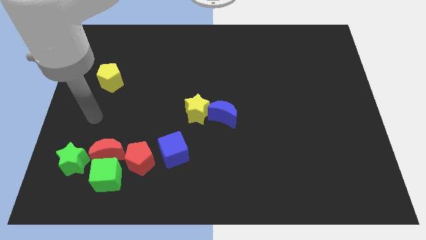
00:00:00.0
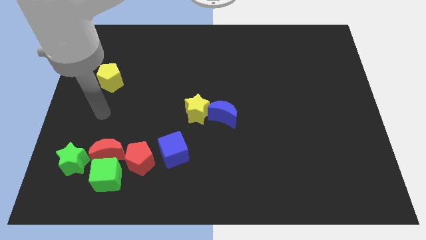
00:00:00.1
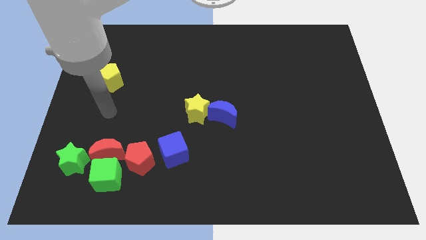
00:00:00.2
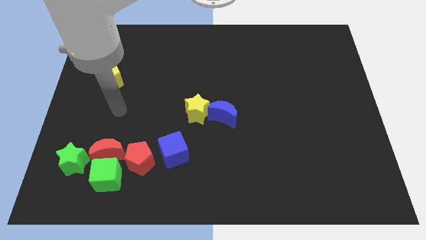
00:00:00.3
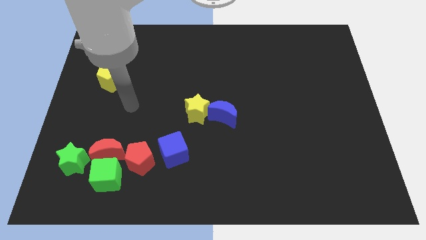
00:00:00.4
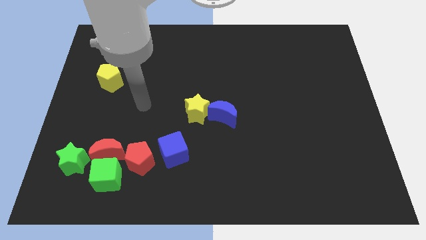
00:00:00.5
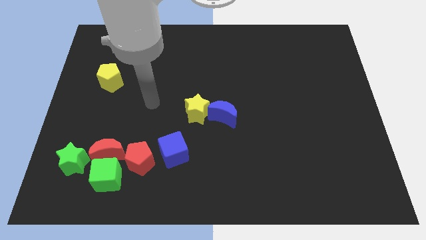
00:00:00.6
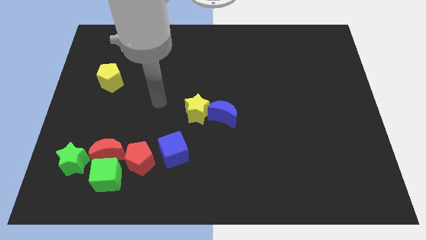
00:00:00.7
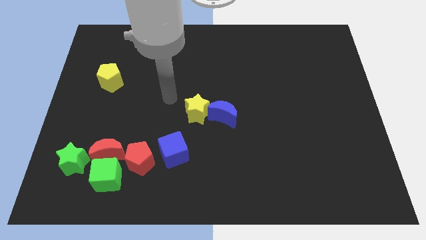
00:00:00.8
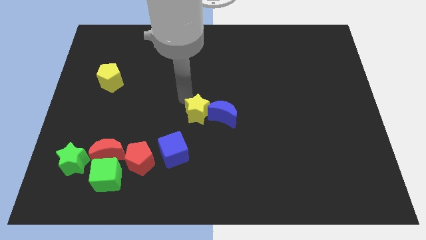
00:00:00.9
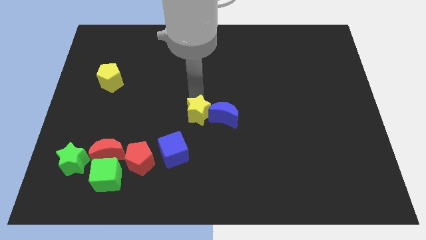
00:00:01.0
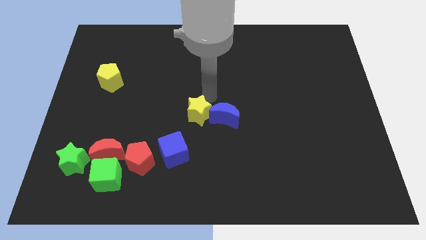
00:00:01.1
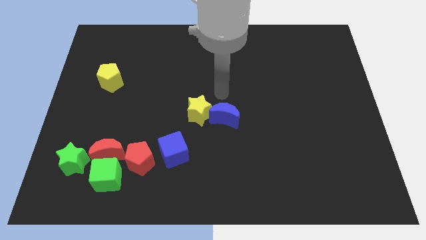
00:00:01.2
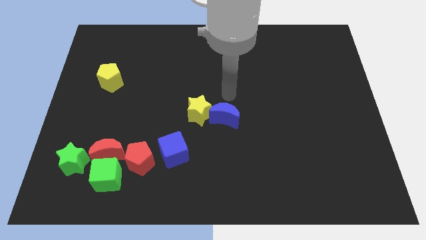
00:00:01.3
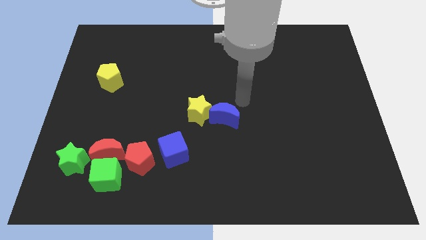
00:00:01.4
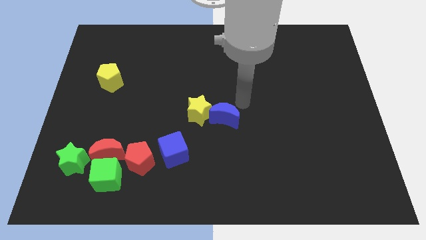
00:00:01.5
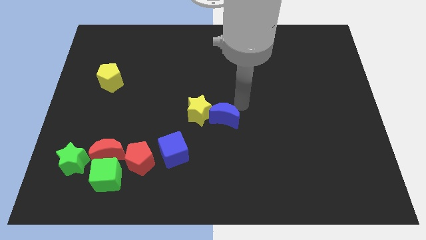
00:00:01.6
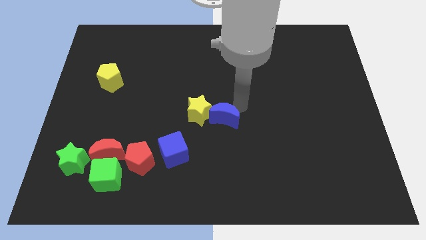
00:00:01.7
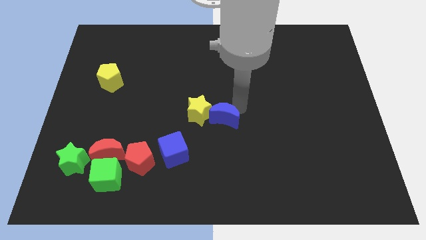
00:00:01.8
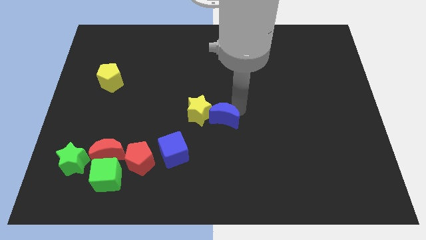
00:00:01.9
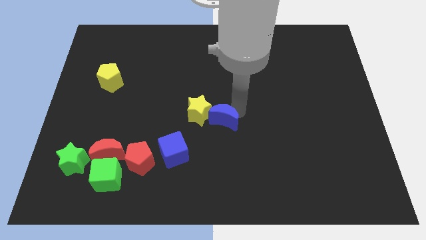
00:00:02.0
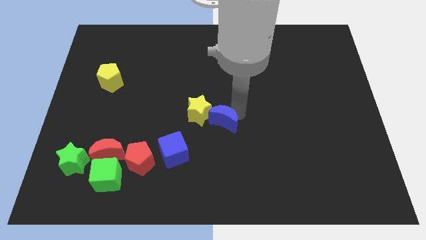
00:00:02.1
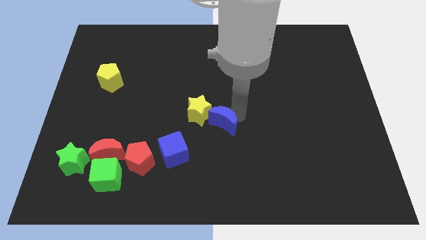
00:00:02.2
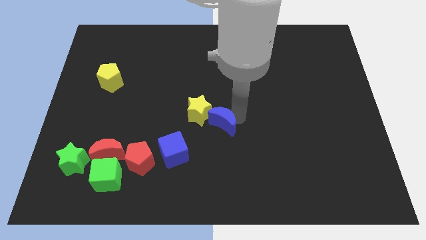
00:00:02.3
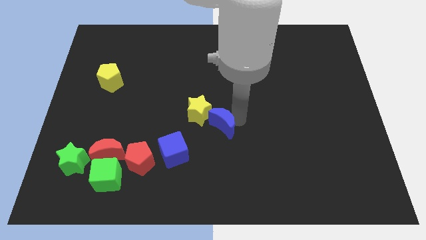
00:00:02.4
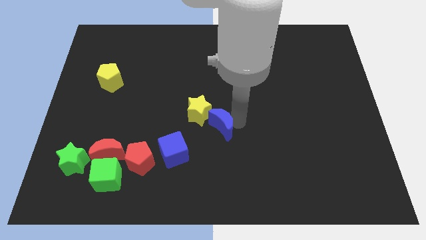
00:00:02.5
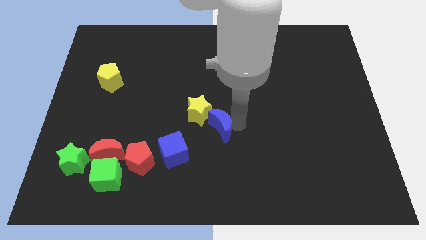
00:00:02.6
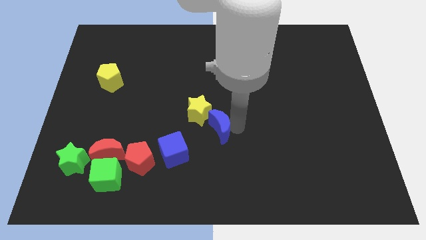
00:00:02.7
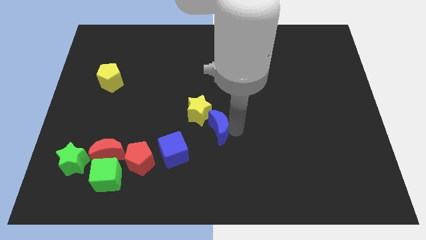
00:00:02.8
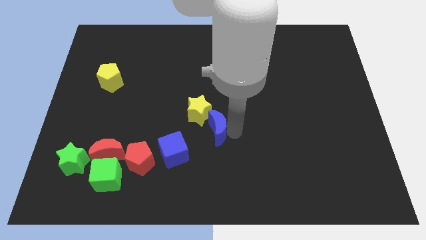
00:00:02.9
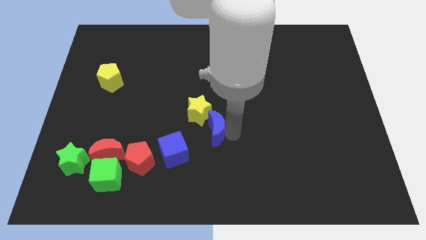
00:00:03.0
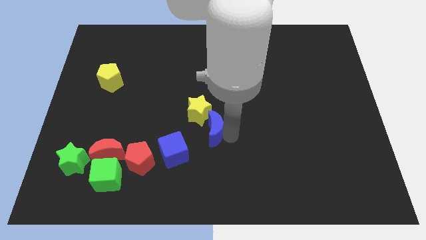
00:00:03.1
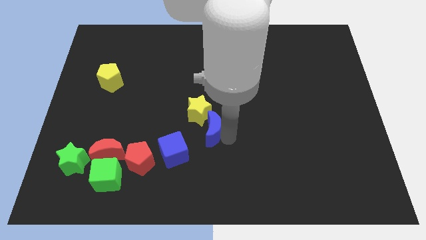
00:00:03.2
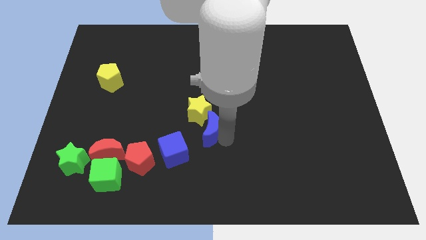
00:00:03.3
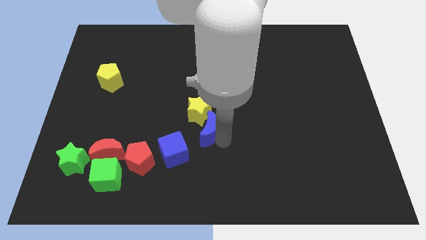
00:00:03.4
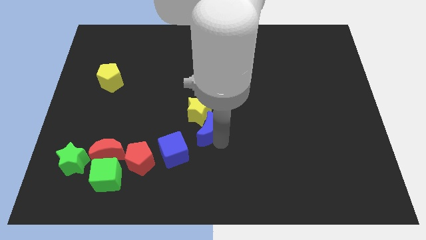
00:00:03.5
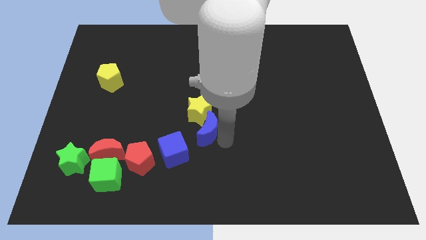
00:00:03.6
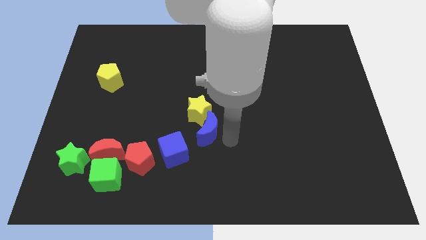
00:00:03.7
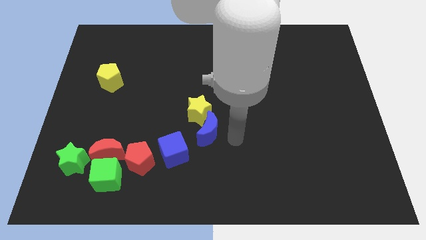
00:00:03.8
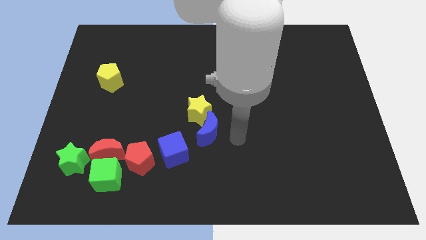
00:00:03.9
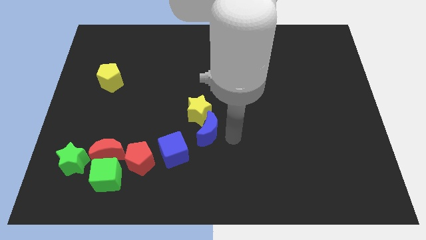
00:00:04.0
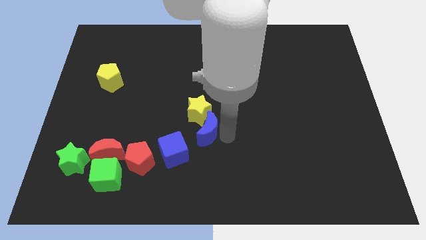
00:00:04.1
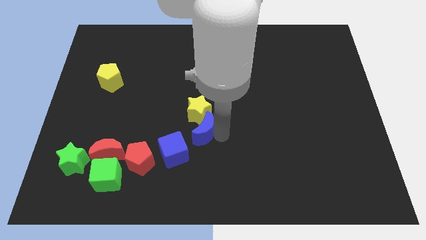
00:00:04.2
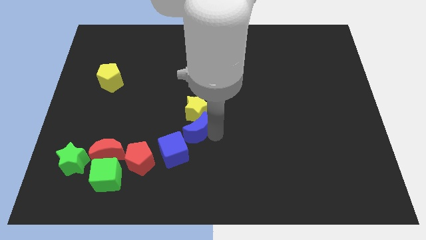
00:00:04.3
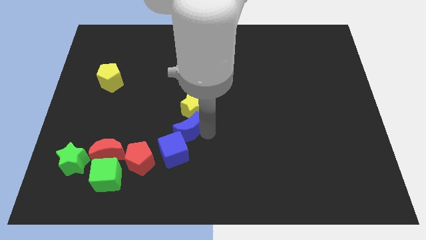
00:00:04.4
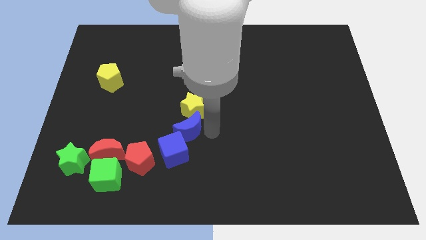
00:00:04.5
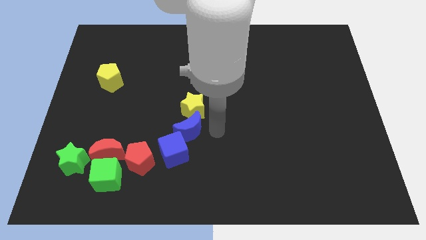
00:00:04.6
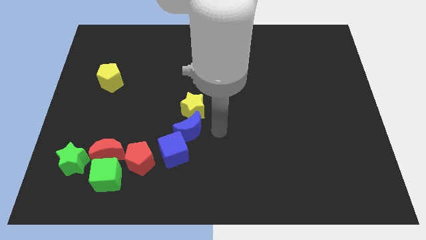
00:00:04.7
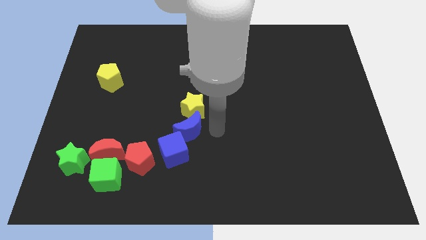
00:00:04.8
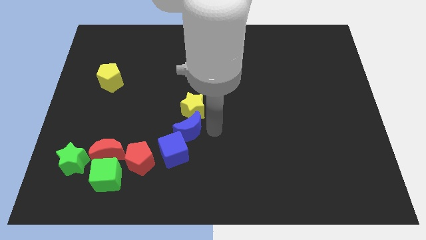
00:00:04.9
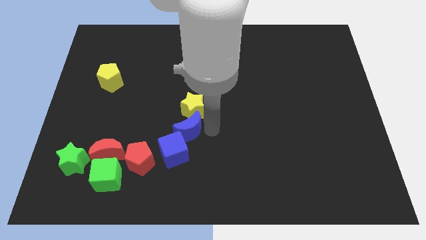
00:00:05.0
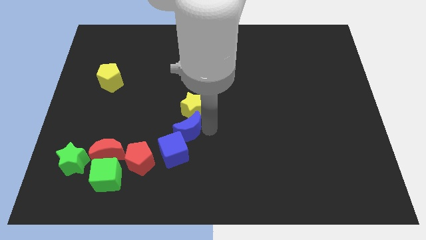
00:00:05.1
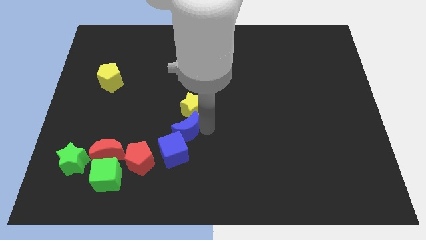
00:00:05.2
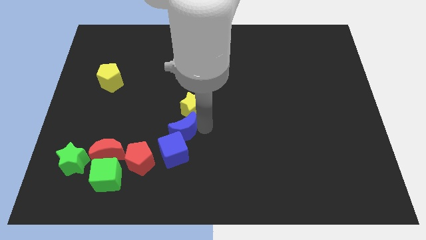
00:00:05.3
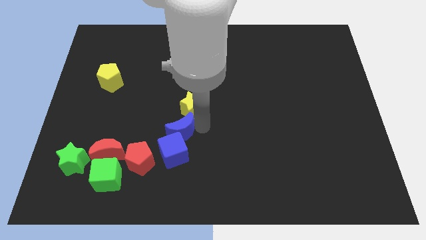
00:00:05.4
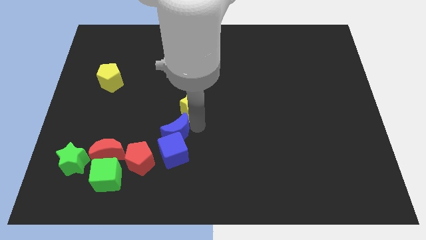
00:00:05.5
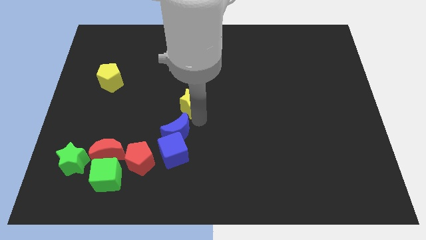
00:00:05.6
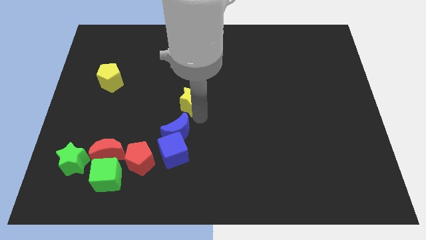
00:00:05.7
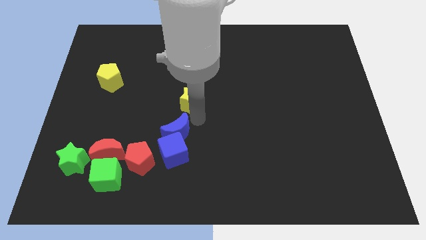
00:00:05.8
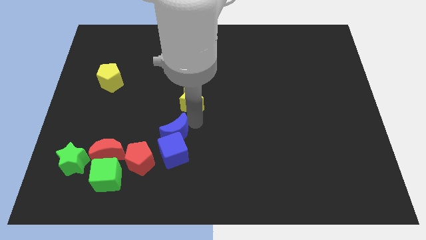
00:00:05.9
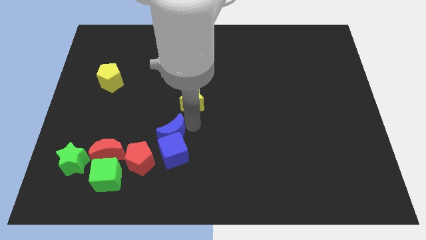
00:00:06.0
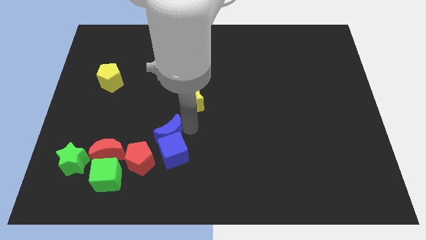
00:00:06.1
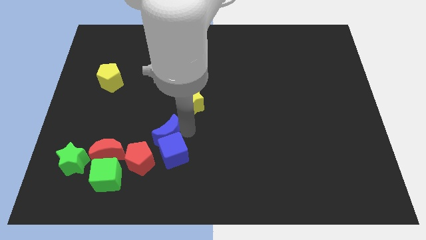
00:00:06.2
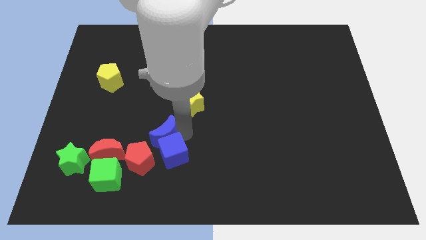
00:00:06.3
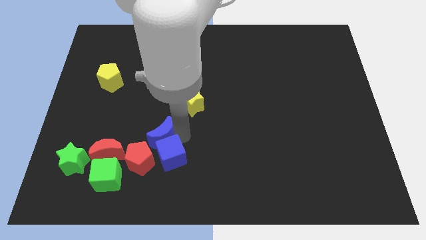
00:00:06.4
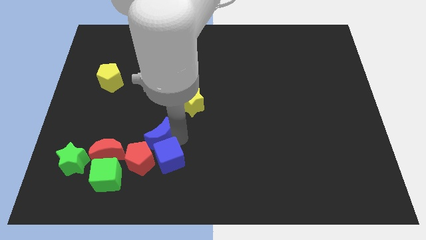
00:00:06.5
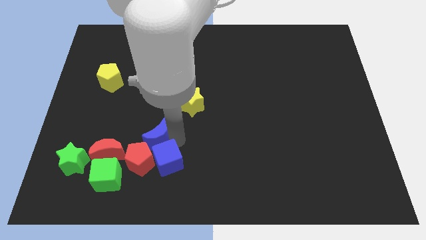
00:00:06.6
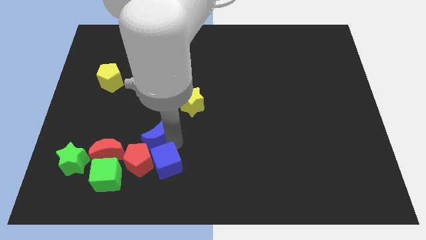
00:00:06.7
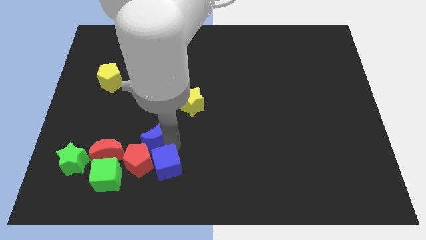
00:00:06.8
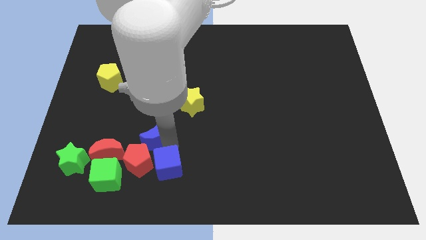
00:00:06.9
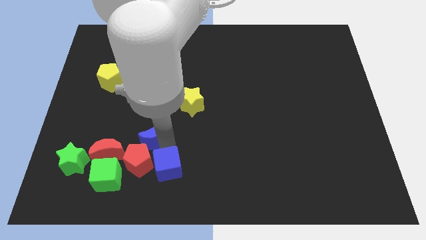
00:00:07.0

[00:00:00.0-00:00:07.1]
put the blue moon close to the red pentagon
